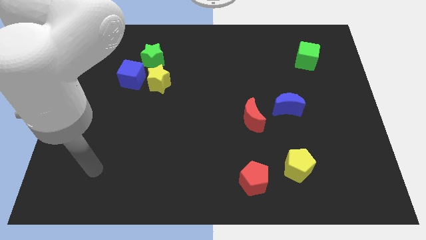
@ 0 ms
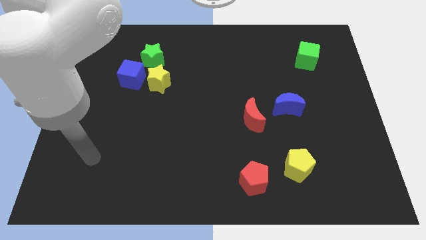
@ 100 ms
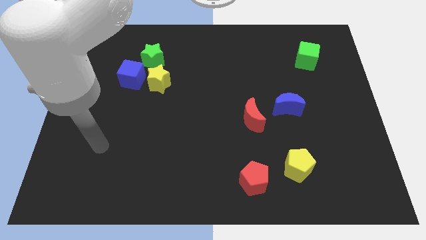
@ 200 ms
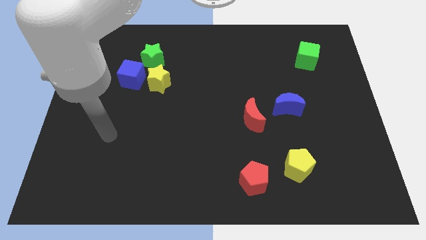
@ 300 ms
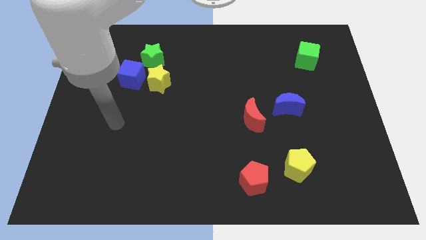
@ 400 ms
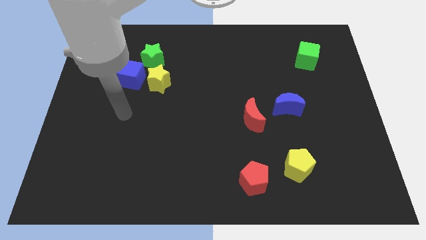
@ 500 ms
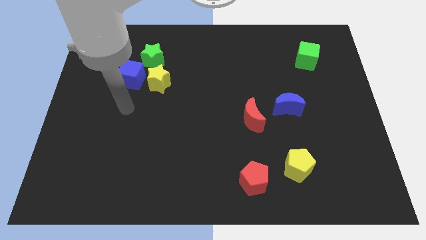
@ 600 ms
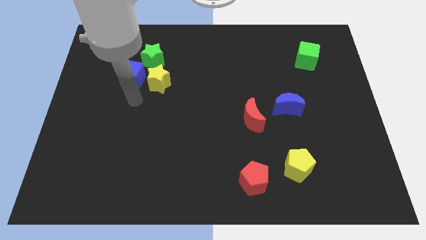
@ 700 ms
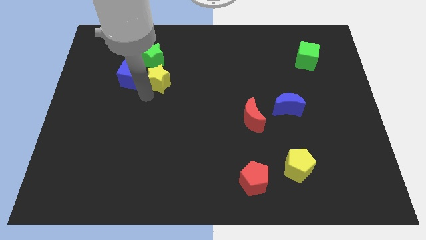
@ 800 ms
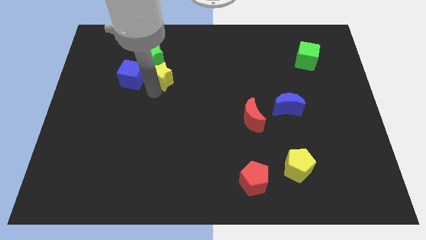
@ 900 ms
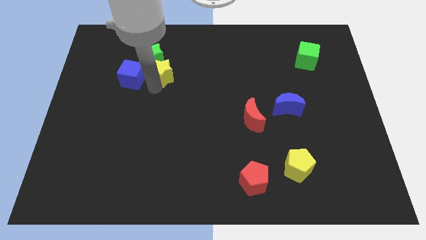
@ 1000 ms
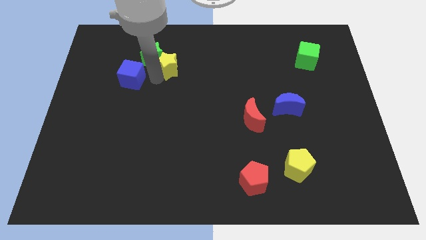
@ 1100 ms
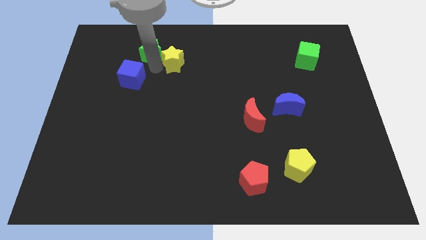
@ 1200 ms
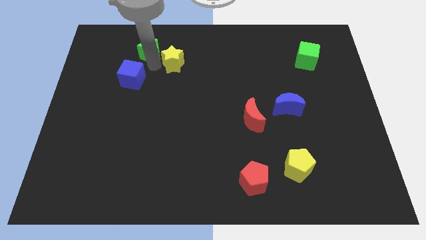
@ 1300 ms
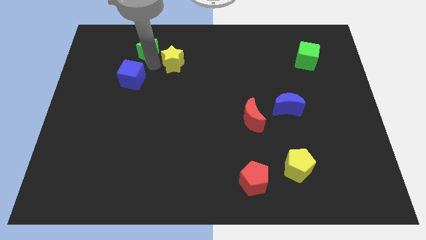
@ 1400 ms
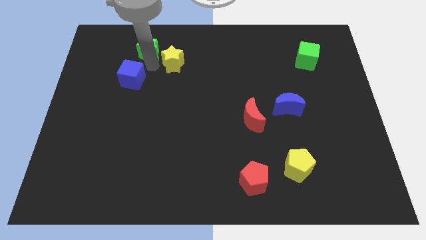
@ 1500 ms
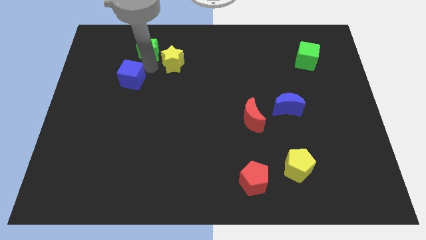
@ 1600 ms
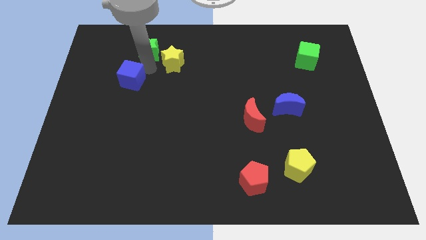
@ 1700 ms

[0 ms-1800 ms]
move the blue cube away from the yellow star and green star

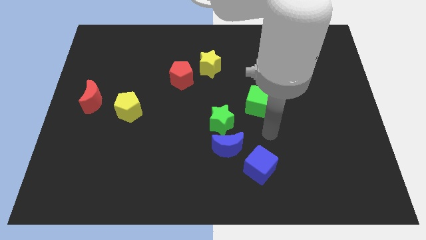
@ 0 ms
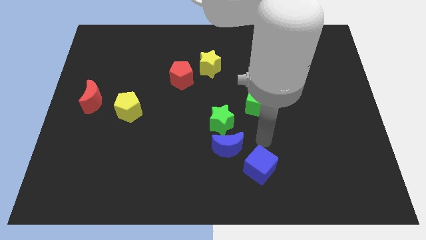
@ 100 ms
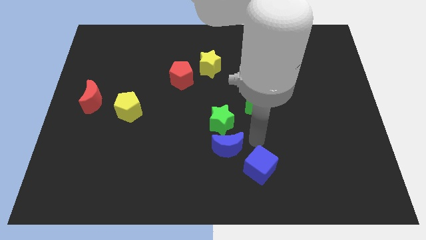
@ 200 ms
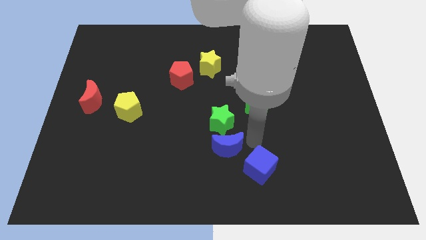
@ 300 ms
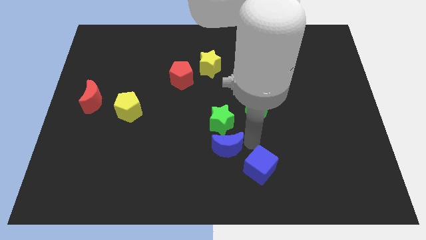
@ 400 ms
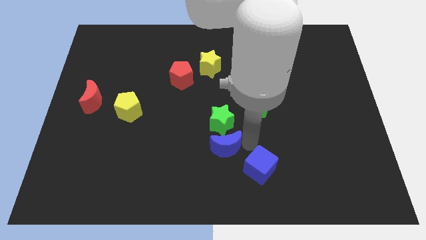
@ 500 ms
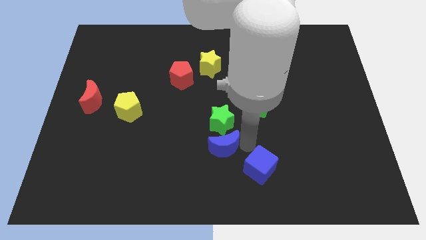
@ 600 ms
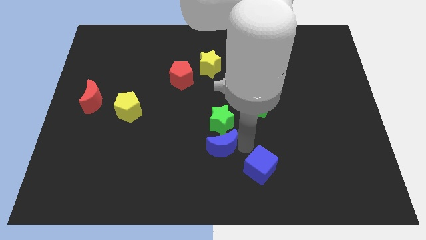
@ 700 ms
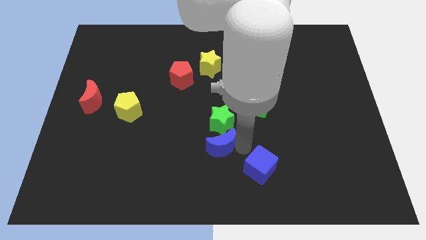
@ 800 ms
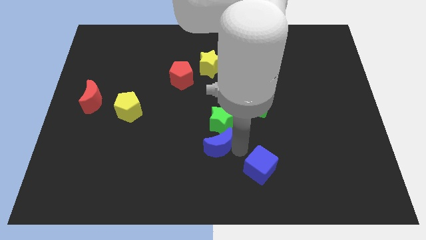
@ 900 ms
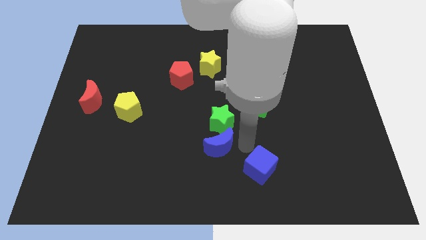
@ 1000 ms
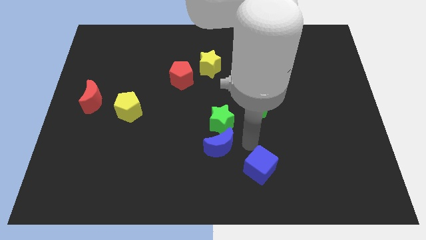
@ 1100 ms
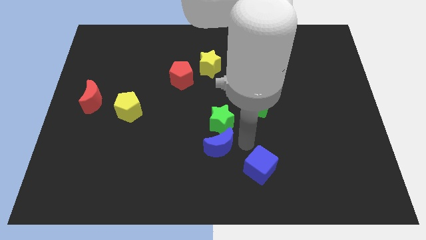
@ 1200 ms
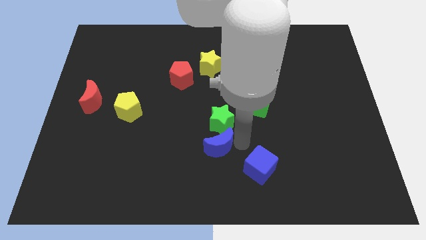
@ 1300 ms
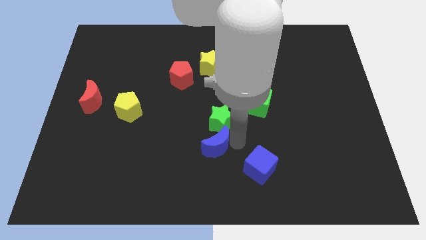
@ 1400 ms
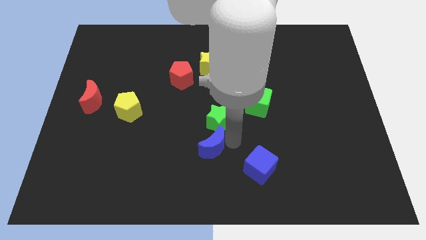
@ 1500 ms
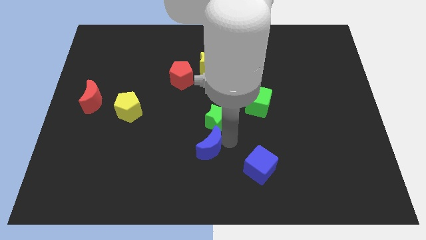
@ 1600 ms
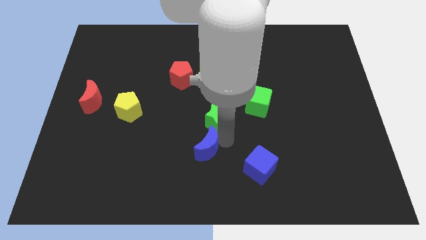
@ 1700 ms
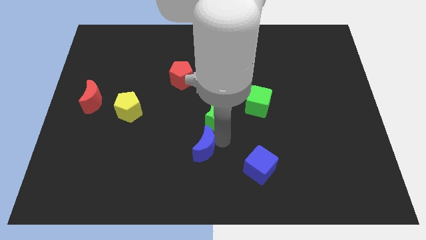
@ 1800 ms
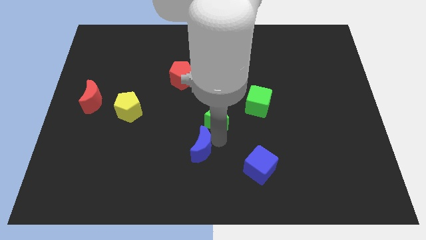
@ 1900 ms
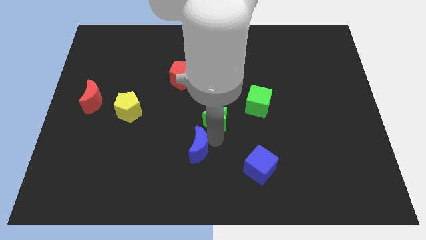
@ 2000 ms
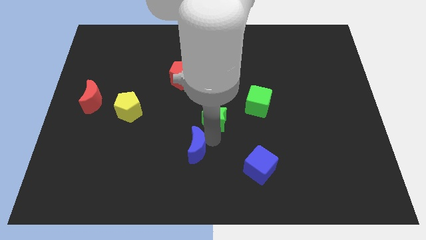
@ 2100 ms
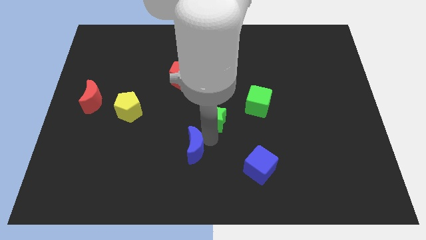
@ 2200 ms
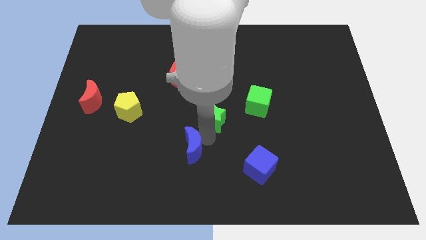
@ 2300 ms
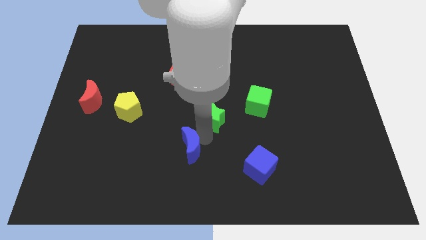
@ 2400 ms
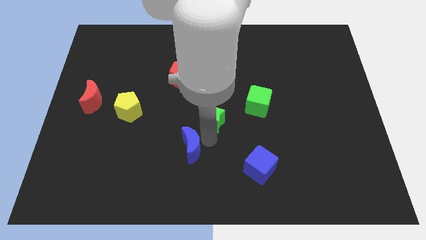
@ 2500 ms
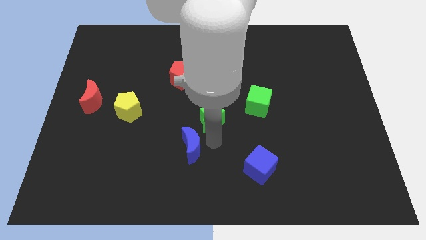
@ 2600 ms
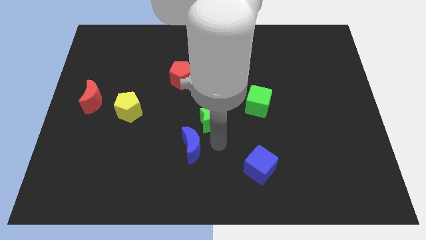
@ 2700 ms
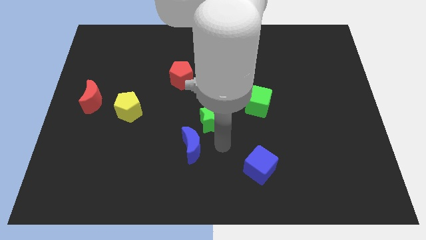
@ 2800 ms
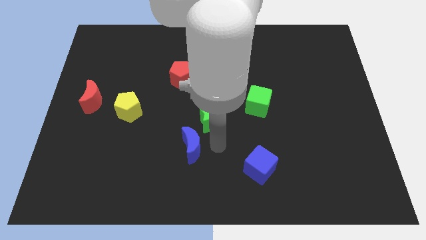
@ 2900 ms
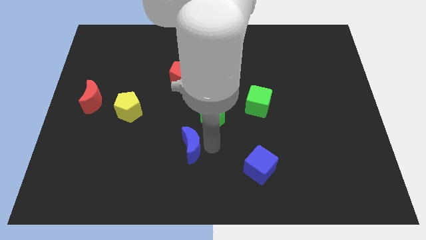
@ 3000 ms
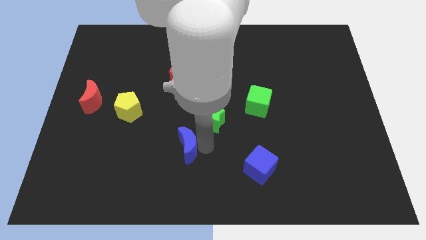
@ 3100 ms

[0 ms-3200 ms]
pull the blue moon apart from the green star and blue cube

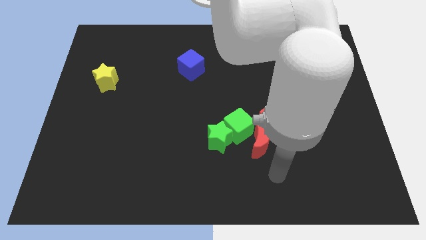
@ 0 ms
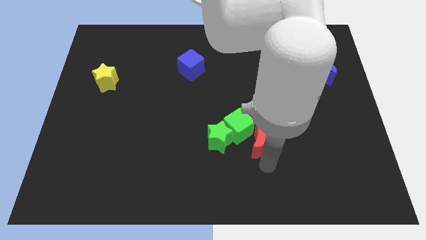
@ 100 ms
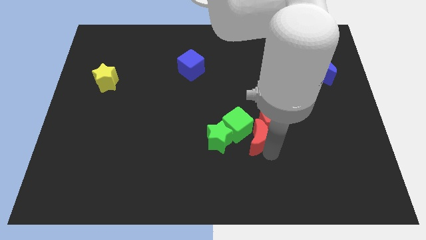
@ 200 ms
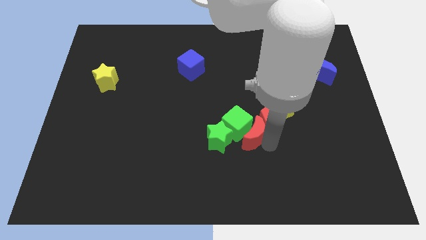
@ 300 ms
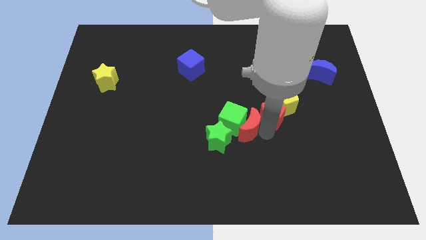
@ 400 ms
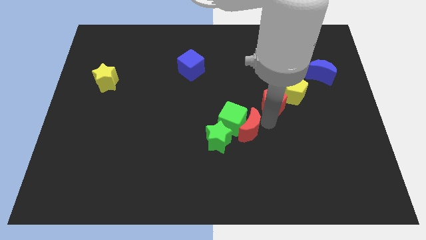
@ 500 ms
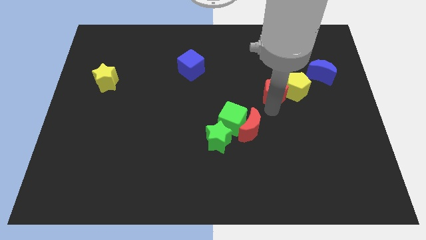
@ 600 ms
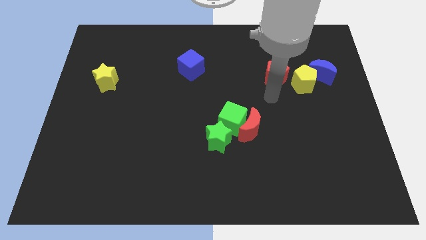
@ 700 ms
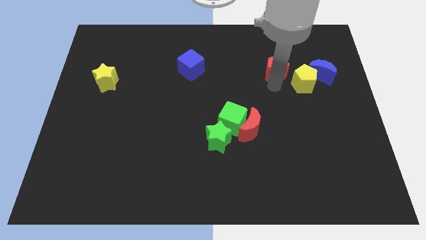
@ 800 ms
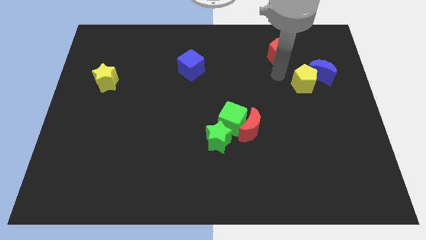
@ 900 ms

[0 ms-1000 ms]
separate the yellow pentagon from the red pentagon

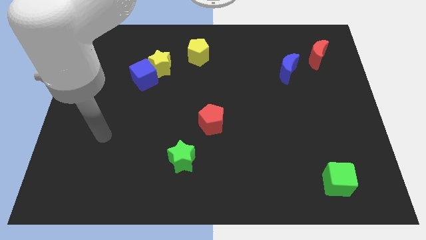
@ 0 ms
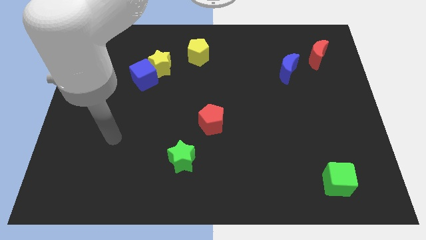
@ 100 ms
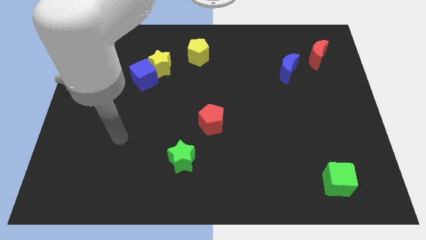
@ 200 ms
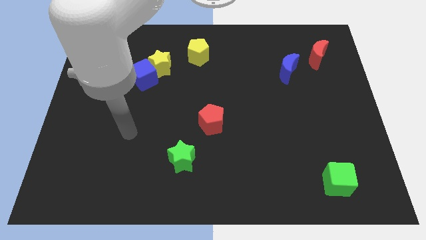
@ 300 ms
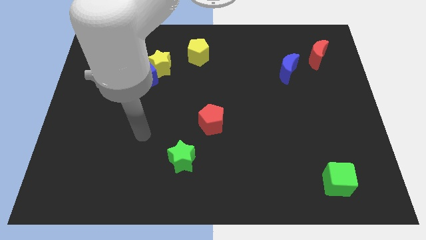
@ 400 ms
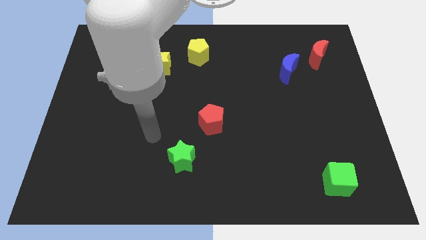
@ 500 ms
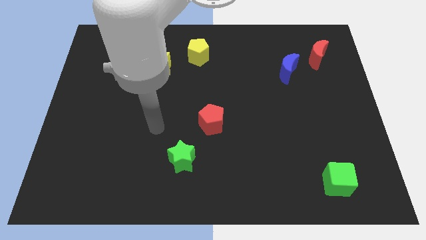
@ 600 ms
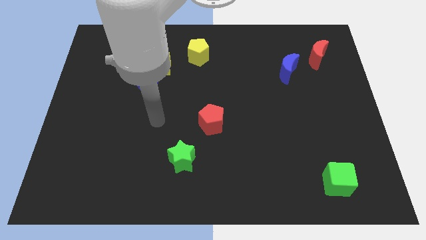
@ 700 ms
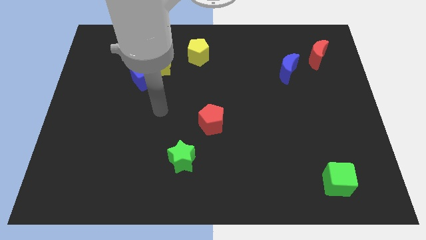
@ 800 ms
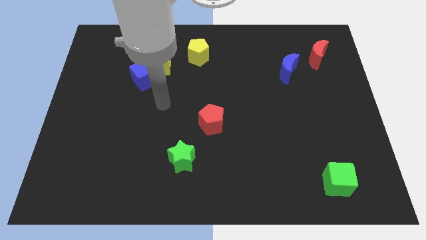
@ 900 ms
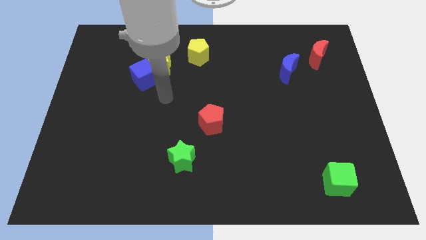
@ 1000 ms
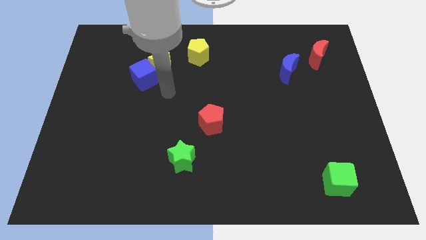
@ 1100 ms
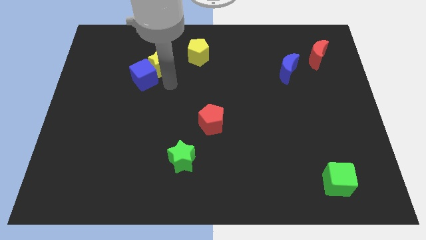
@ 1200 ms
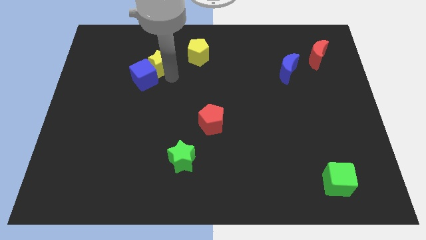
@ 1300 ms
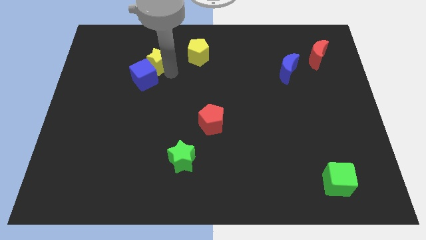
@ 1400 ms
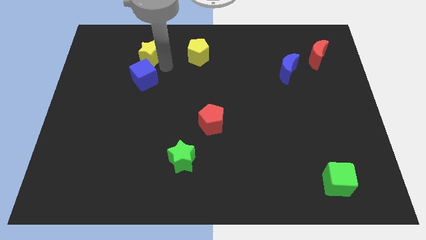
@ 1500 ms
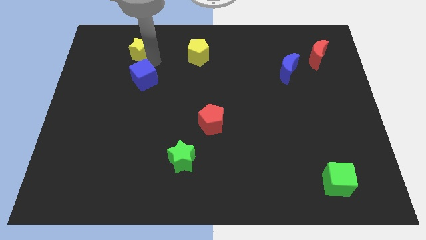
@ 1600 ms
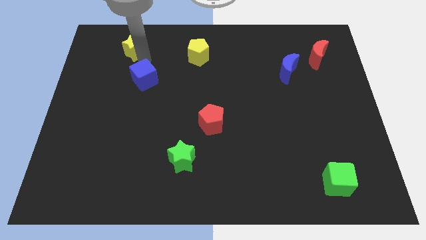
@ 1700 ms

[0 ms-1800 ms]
pull the blue cube apart from the yellow star

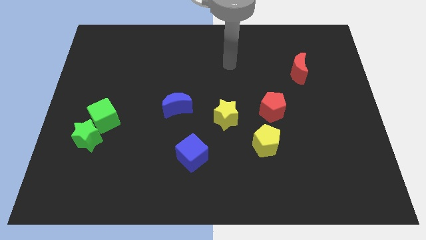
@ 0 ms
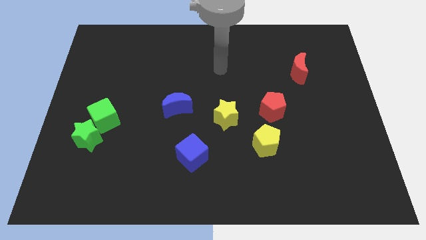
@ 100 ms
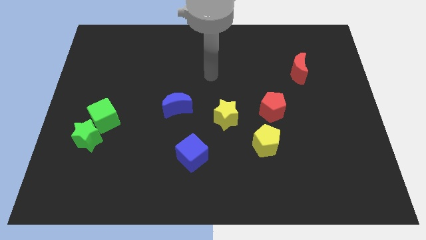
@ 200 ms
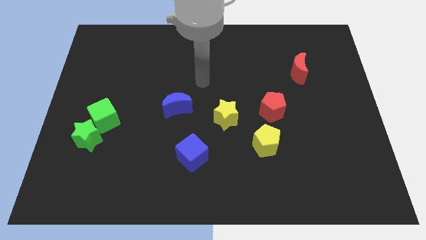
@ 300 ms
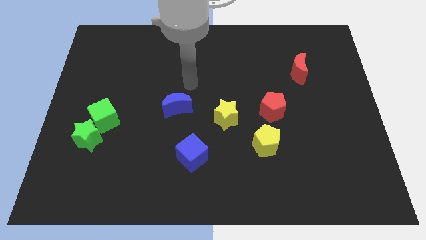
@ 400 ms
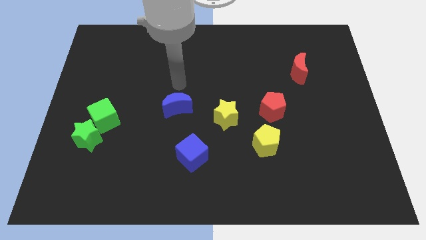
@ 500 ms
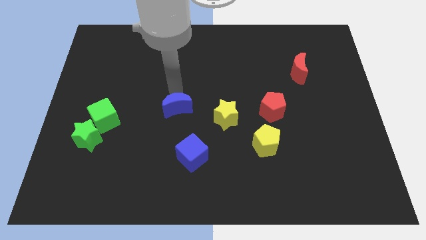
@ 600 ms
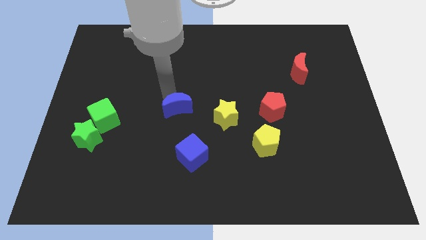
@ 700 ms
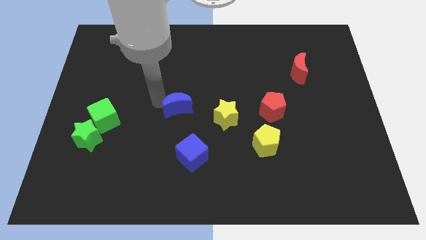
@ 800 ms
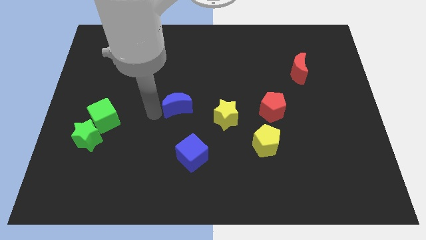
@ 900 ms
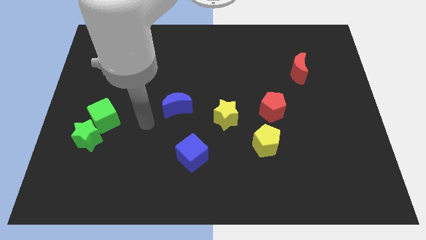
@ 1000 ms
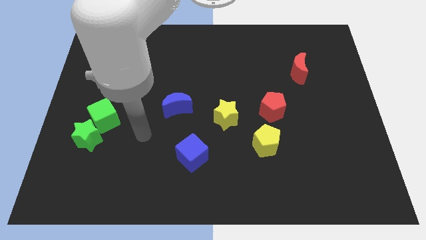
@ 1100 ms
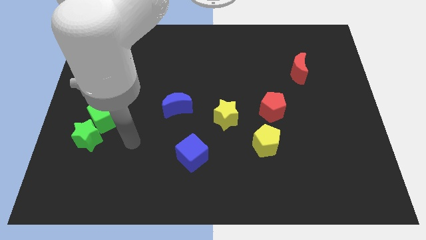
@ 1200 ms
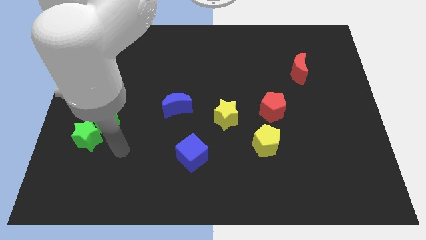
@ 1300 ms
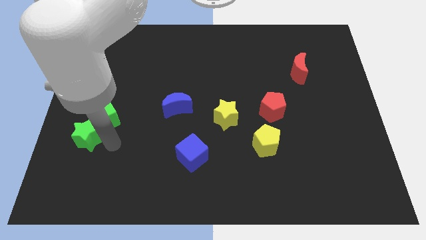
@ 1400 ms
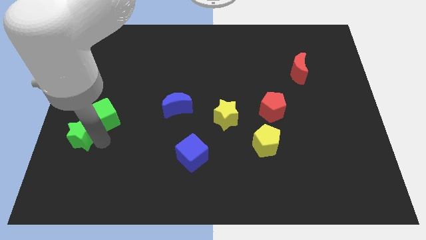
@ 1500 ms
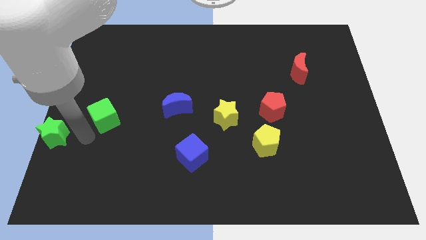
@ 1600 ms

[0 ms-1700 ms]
separate the green cube from the green star
